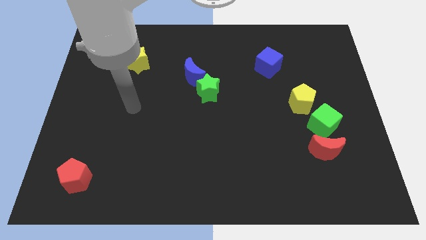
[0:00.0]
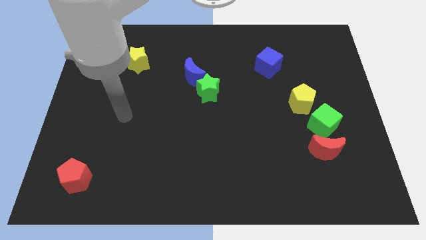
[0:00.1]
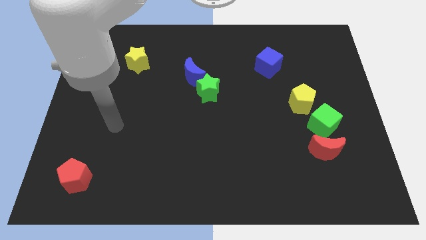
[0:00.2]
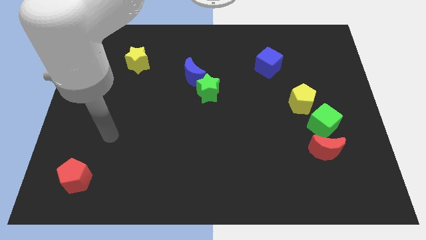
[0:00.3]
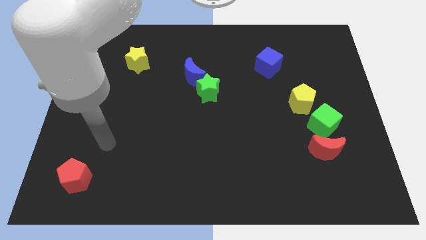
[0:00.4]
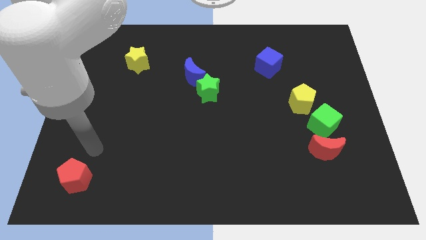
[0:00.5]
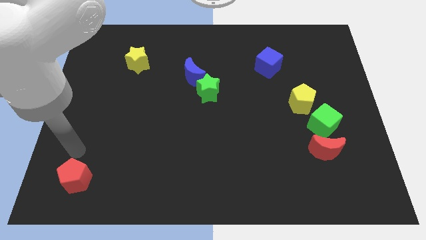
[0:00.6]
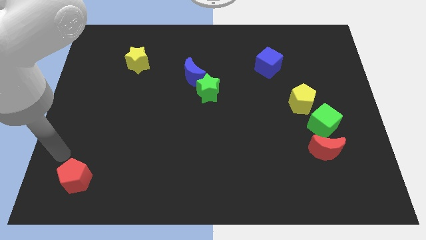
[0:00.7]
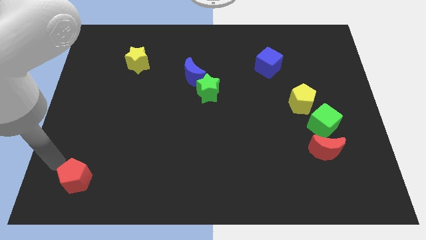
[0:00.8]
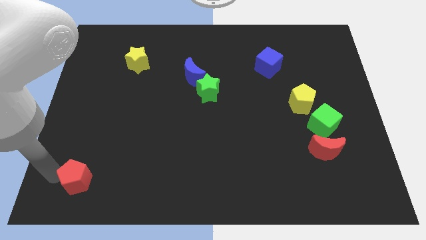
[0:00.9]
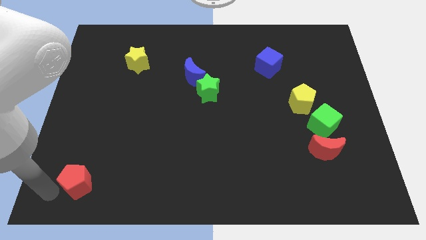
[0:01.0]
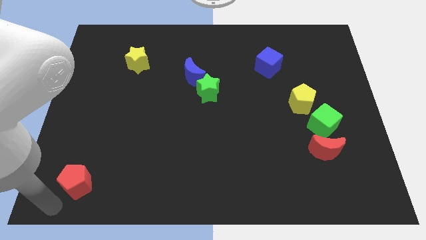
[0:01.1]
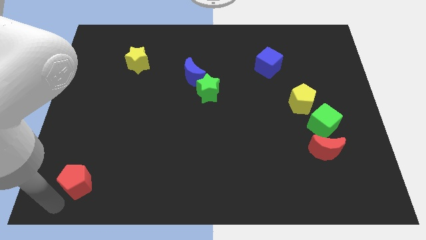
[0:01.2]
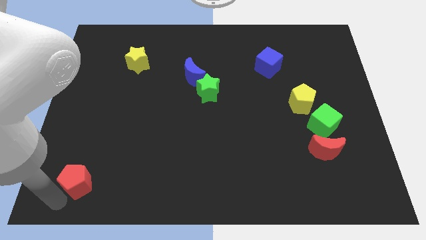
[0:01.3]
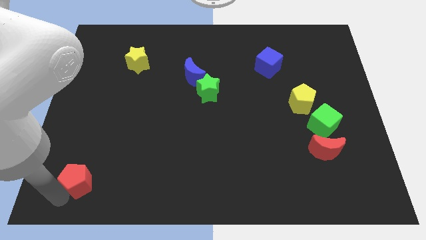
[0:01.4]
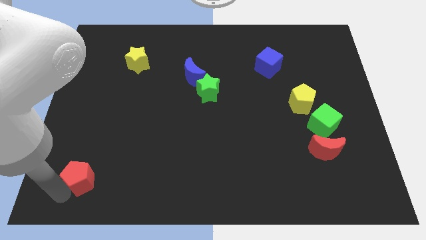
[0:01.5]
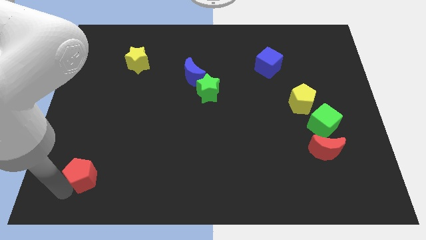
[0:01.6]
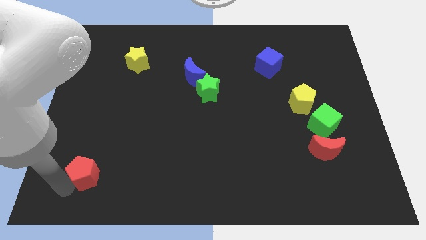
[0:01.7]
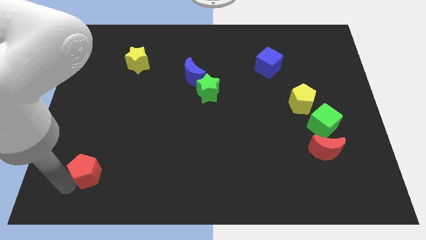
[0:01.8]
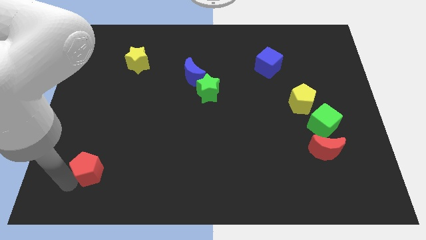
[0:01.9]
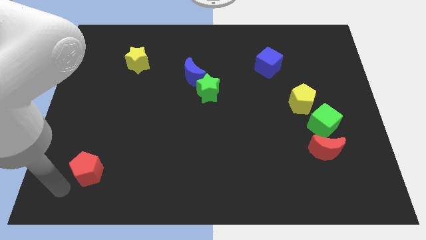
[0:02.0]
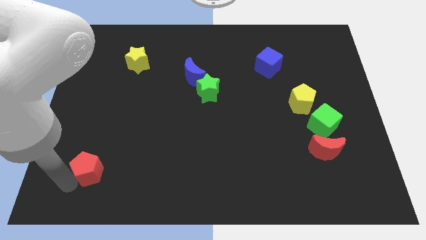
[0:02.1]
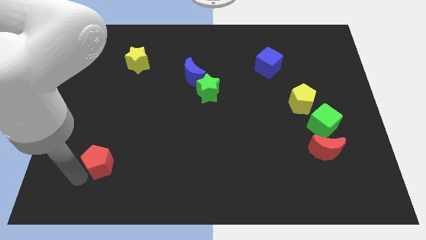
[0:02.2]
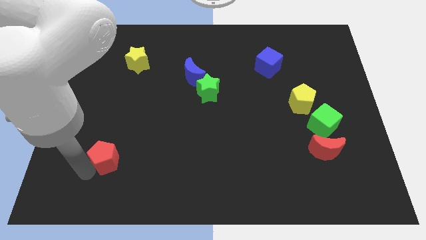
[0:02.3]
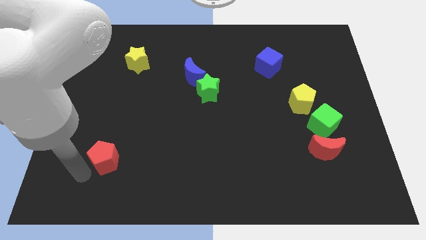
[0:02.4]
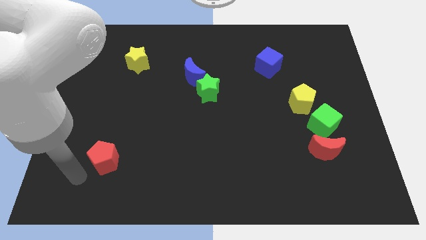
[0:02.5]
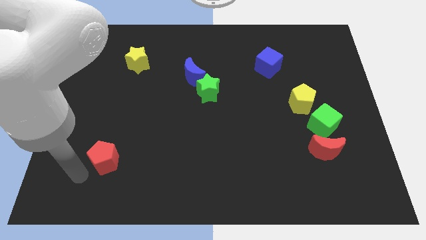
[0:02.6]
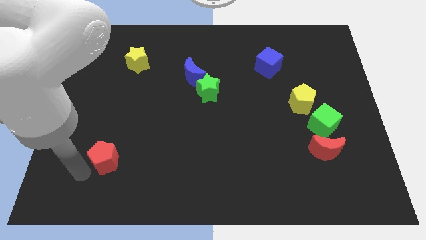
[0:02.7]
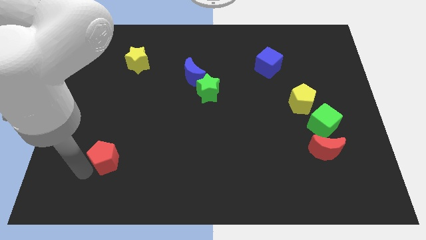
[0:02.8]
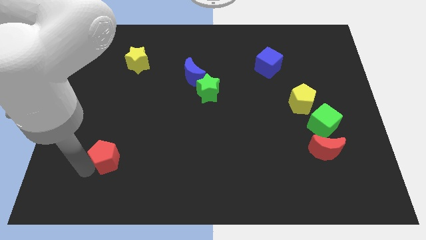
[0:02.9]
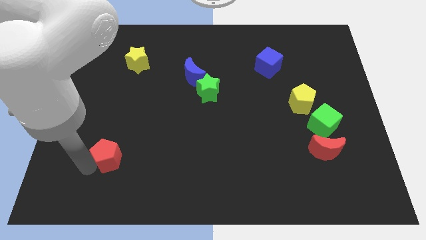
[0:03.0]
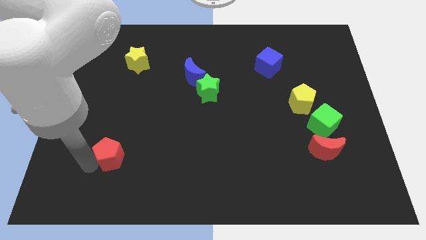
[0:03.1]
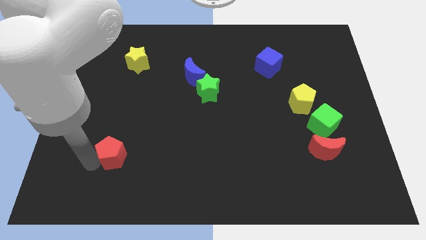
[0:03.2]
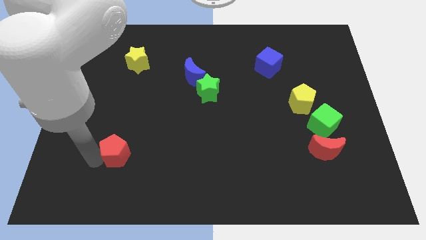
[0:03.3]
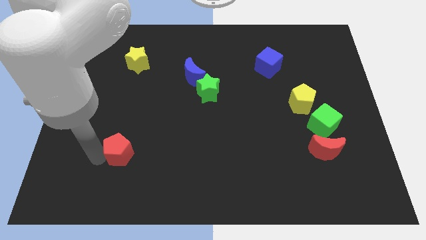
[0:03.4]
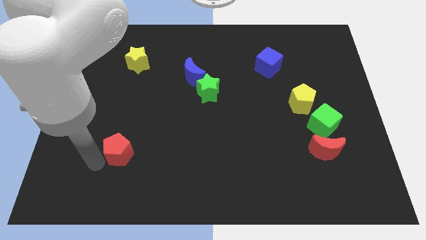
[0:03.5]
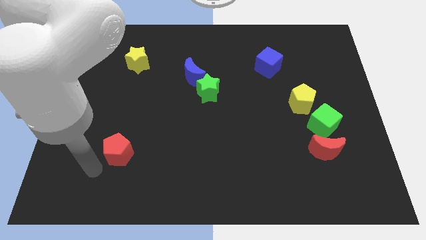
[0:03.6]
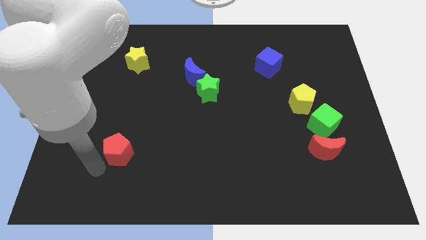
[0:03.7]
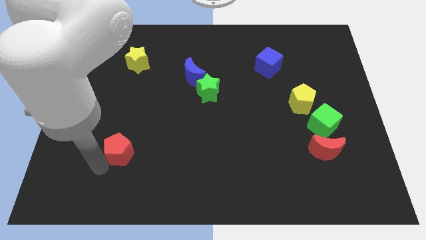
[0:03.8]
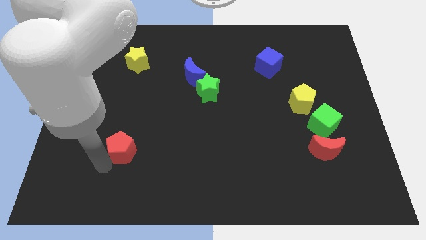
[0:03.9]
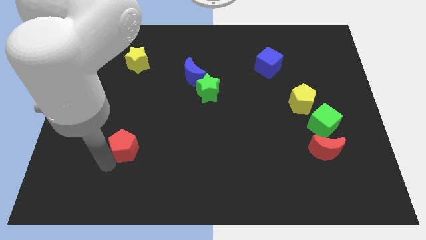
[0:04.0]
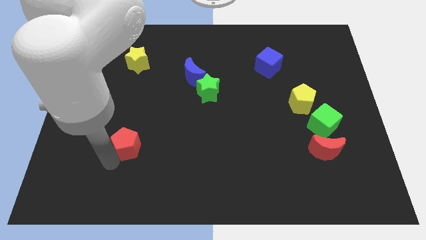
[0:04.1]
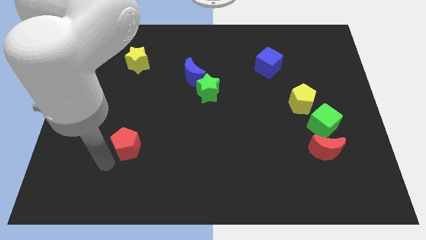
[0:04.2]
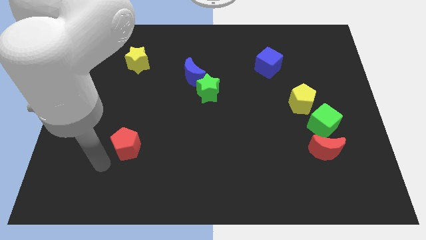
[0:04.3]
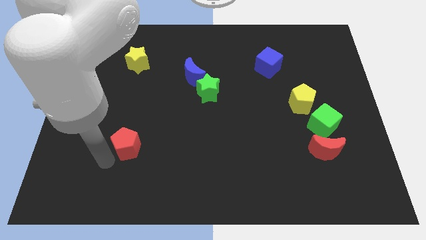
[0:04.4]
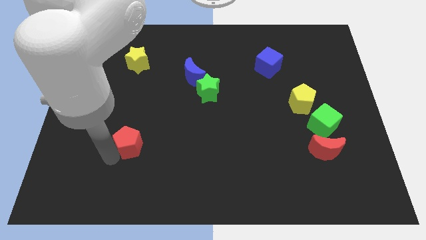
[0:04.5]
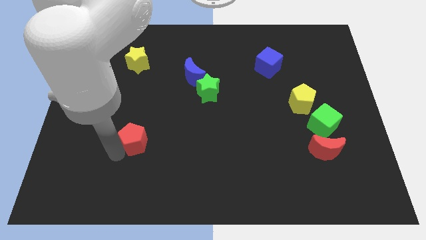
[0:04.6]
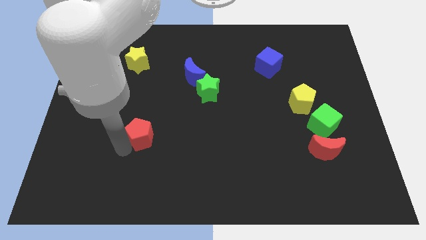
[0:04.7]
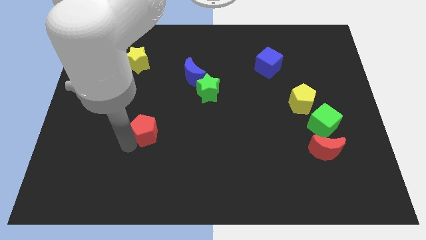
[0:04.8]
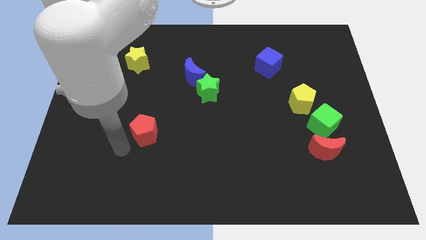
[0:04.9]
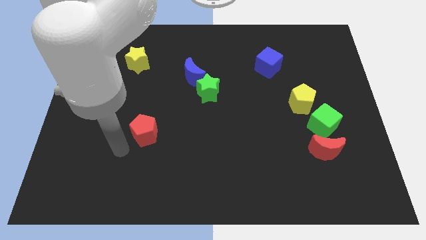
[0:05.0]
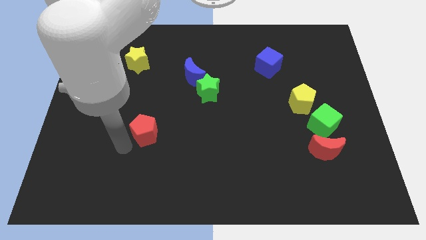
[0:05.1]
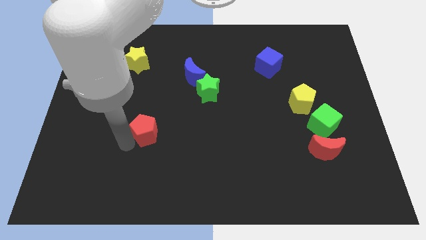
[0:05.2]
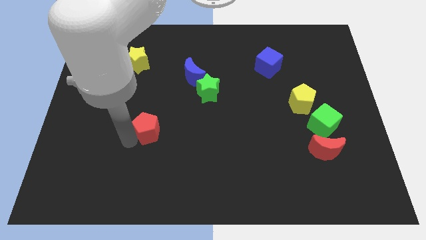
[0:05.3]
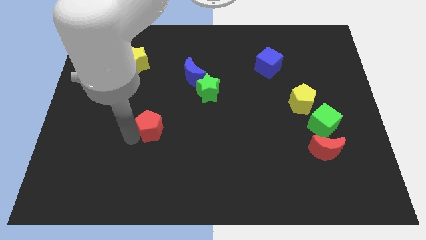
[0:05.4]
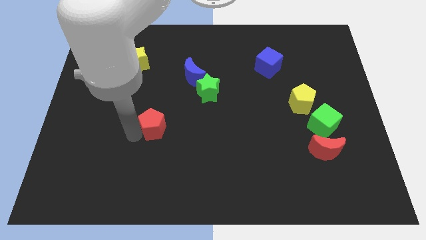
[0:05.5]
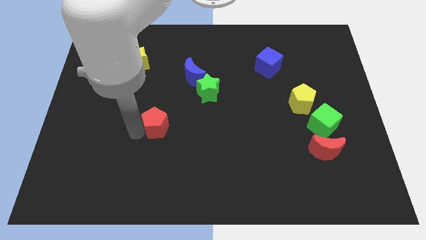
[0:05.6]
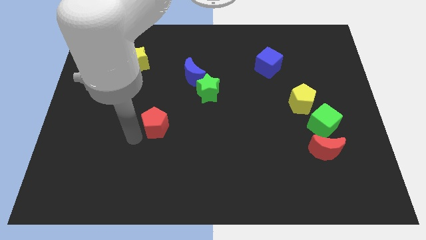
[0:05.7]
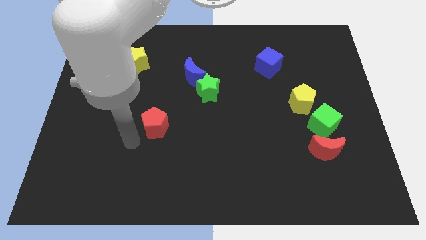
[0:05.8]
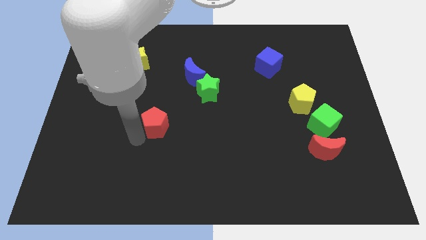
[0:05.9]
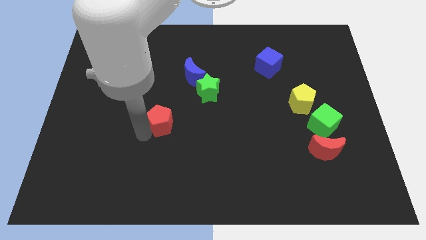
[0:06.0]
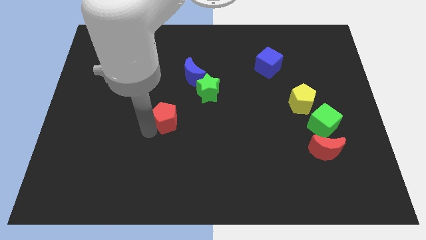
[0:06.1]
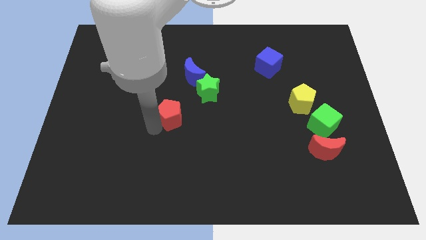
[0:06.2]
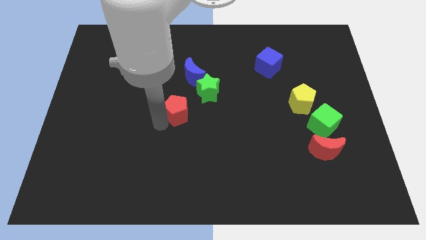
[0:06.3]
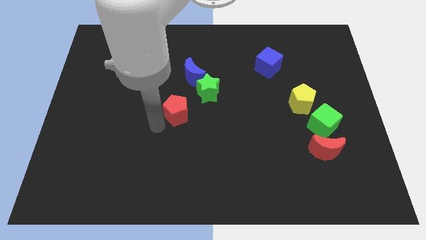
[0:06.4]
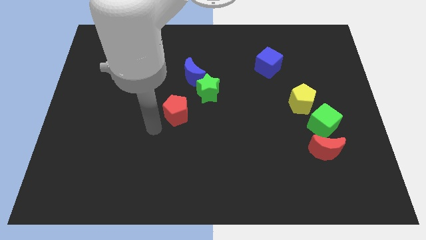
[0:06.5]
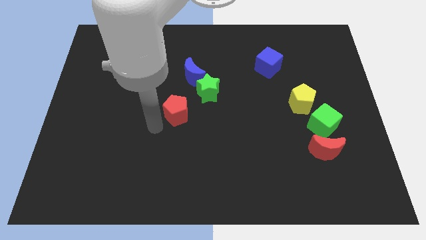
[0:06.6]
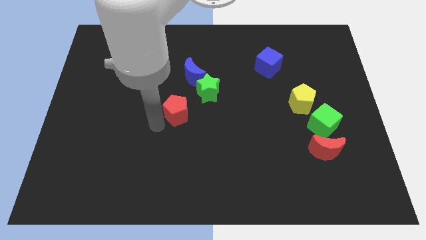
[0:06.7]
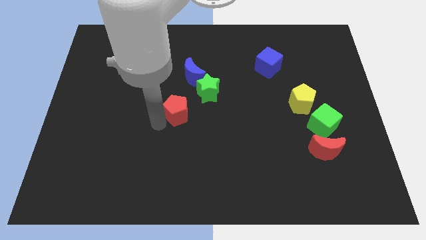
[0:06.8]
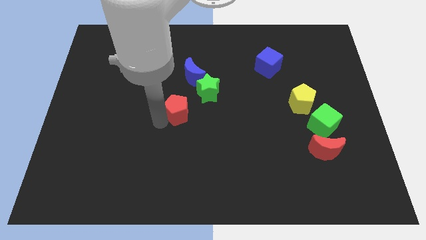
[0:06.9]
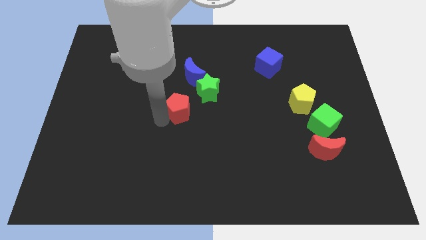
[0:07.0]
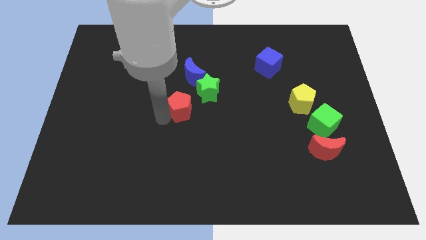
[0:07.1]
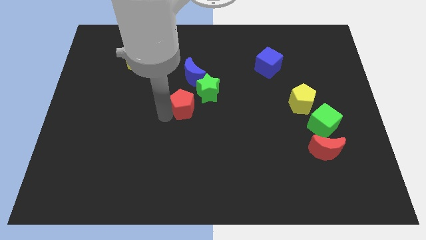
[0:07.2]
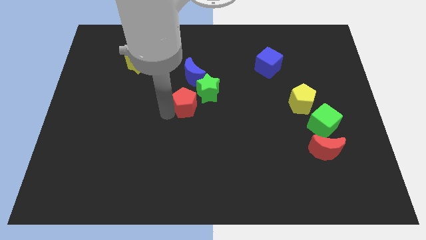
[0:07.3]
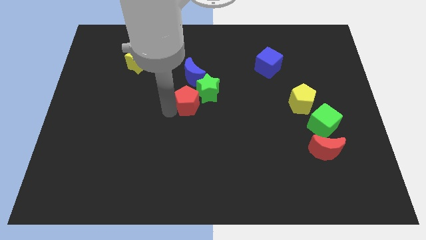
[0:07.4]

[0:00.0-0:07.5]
push the red pentagon towards the green star
